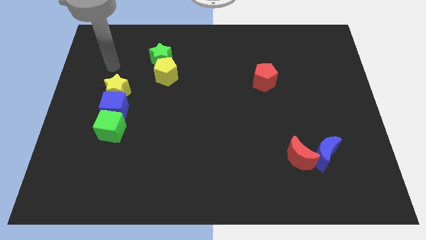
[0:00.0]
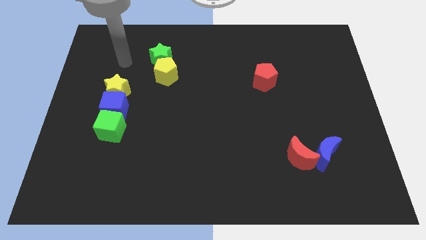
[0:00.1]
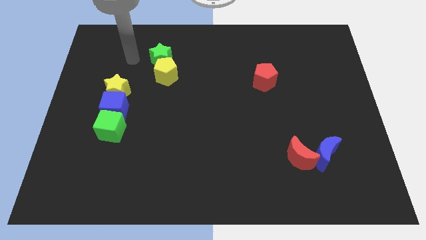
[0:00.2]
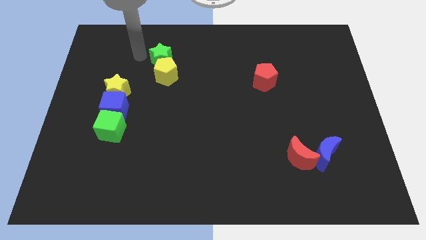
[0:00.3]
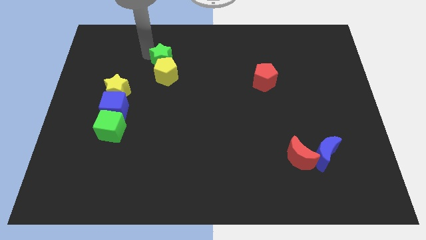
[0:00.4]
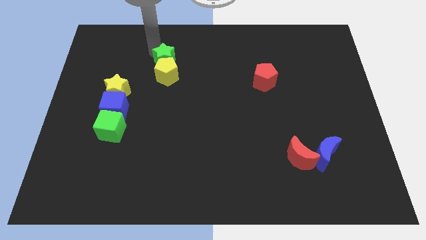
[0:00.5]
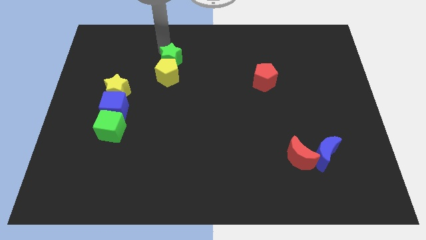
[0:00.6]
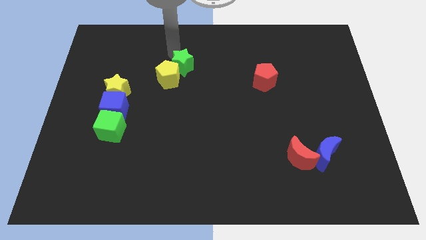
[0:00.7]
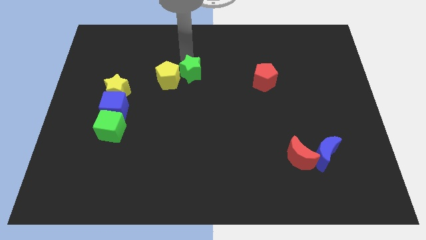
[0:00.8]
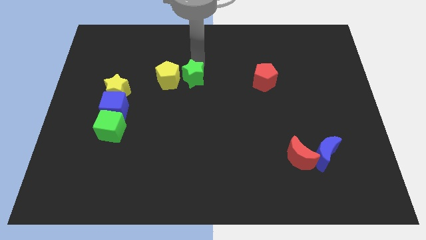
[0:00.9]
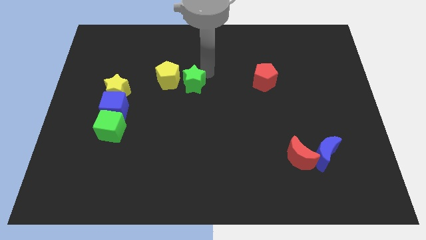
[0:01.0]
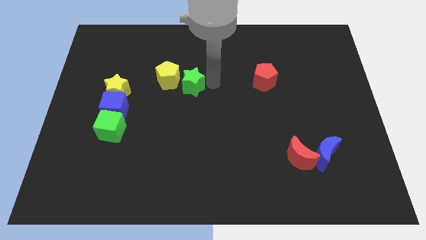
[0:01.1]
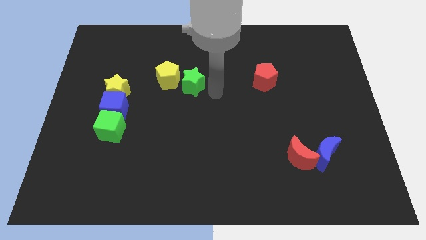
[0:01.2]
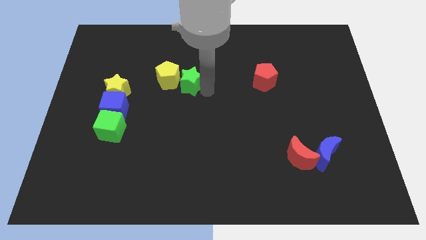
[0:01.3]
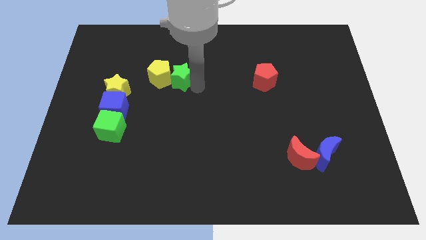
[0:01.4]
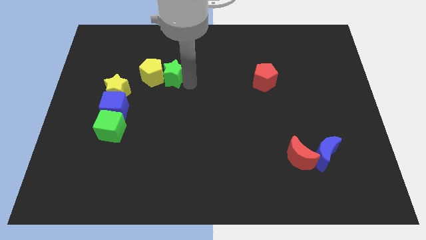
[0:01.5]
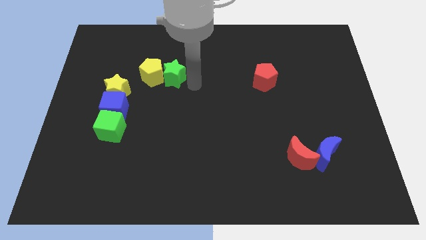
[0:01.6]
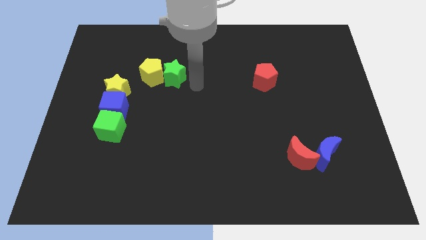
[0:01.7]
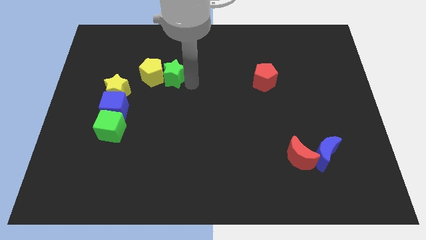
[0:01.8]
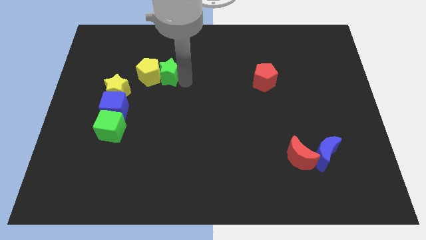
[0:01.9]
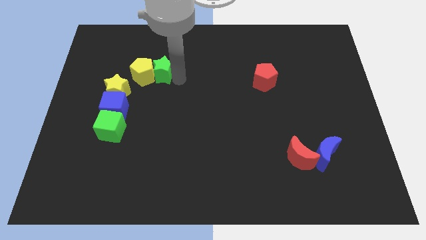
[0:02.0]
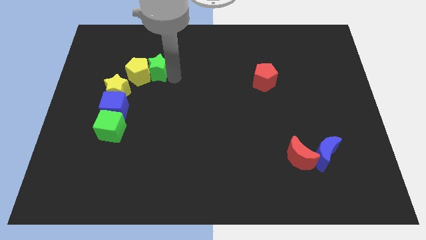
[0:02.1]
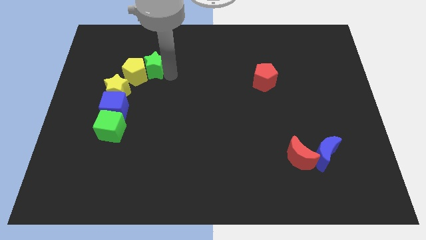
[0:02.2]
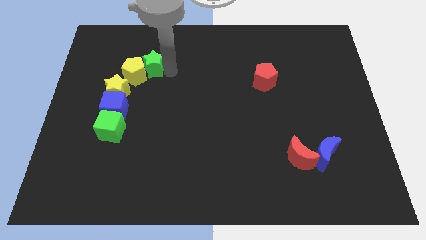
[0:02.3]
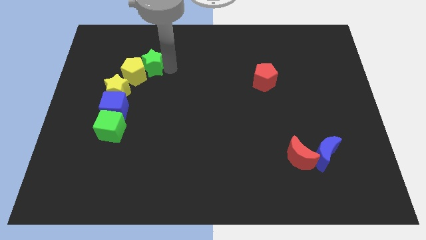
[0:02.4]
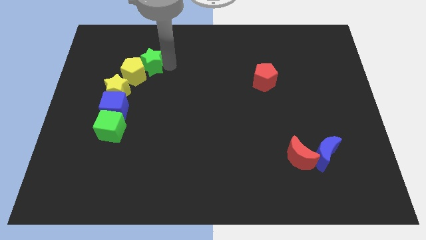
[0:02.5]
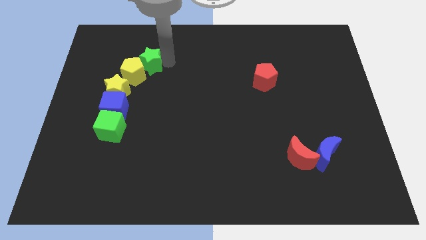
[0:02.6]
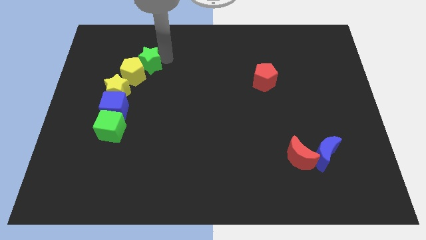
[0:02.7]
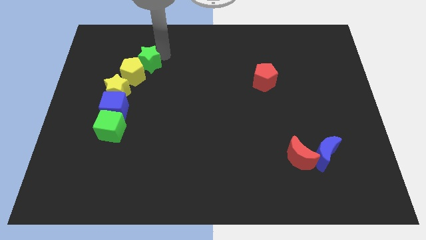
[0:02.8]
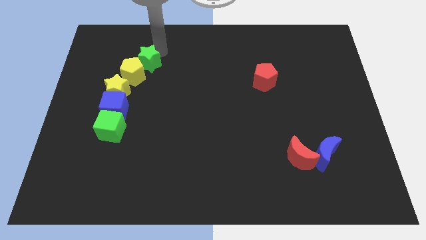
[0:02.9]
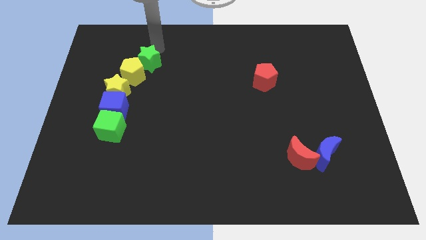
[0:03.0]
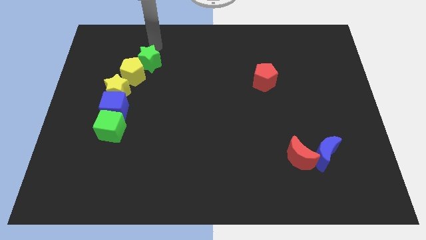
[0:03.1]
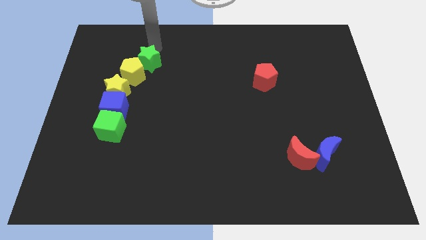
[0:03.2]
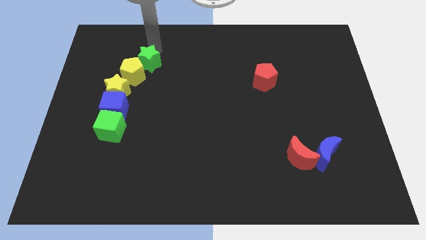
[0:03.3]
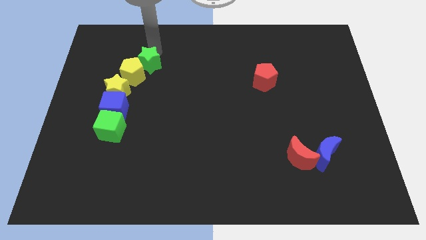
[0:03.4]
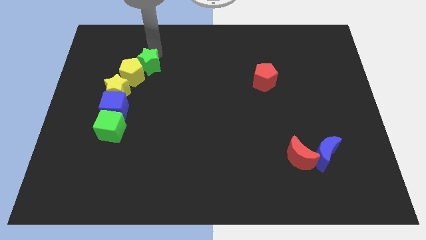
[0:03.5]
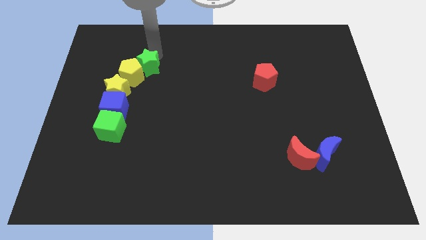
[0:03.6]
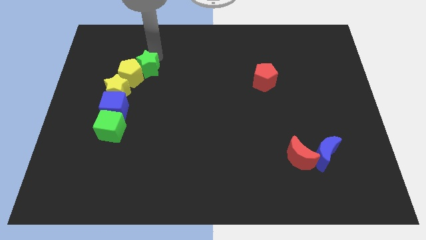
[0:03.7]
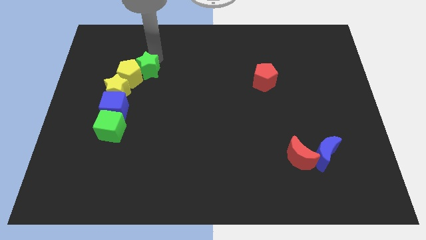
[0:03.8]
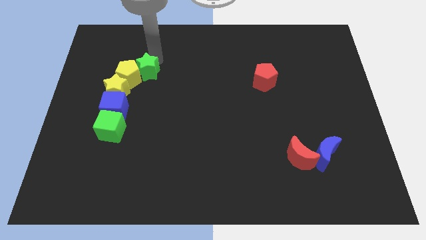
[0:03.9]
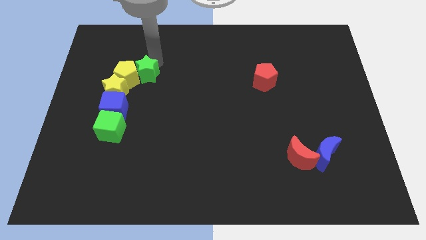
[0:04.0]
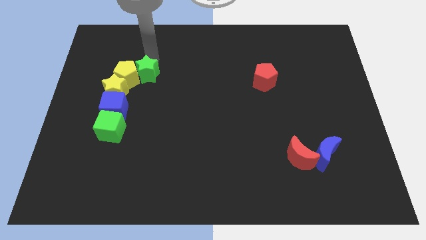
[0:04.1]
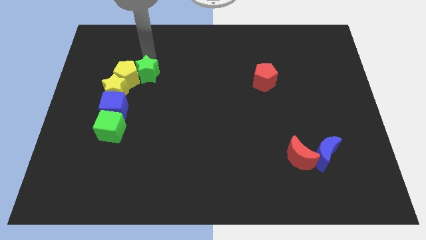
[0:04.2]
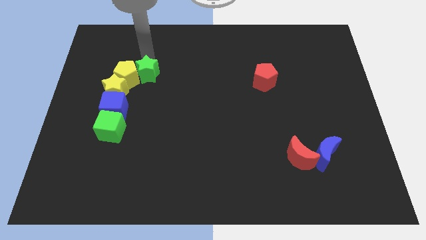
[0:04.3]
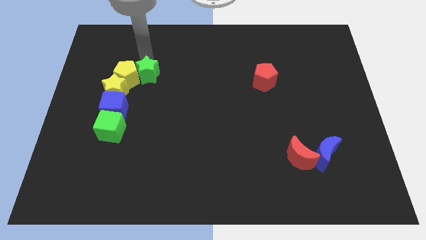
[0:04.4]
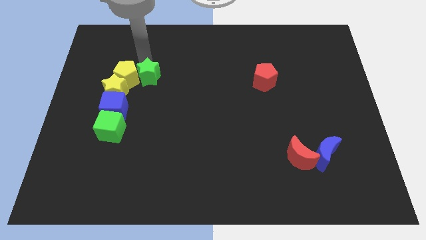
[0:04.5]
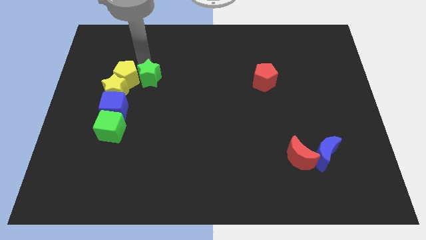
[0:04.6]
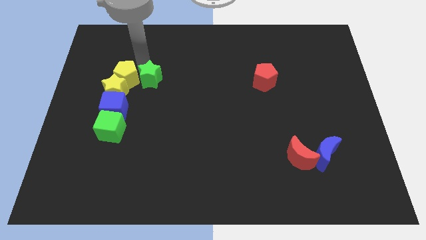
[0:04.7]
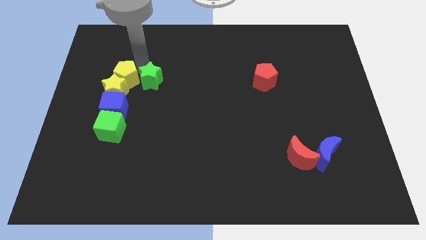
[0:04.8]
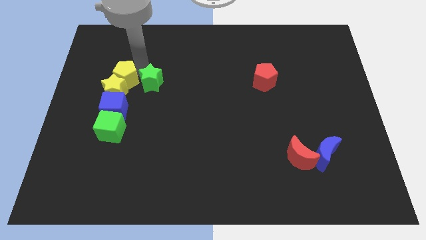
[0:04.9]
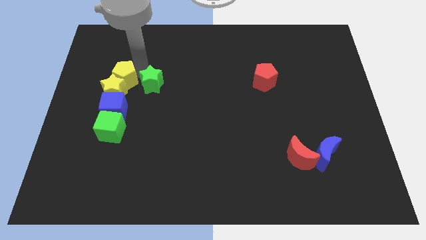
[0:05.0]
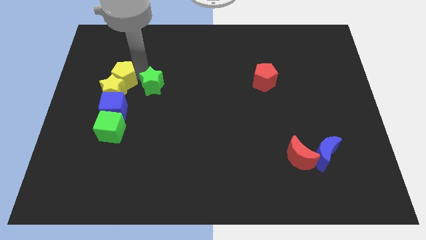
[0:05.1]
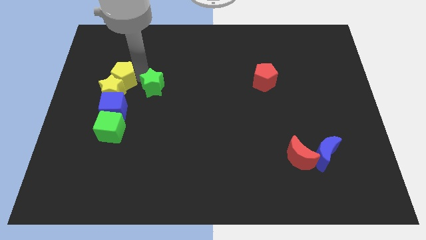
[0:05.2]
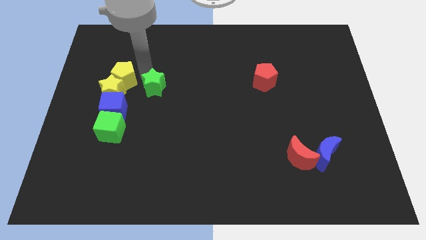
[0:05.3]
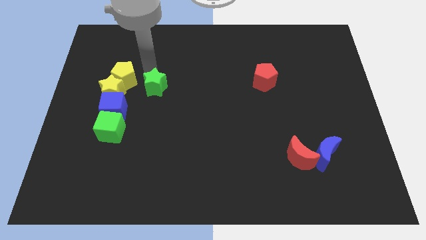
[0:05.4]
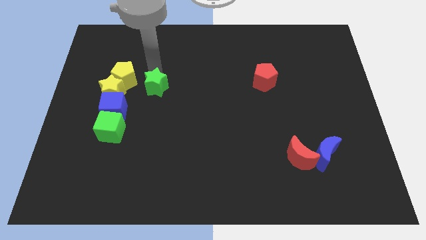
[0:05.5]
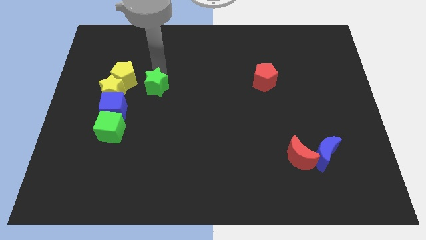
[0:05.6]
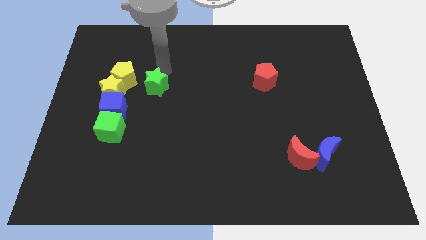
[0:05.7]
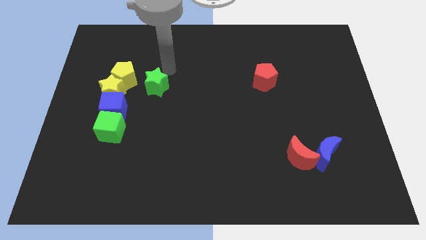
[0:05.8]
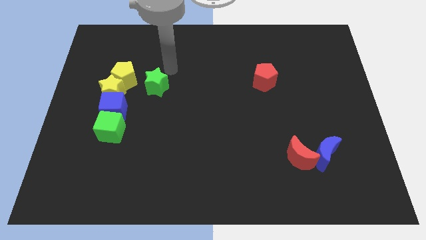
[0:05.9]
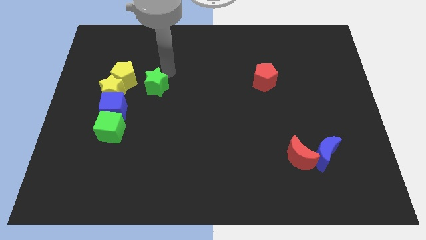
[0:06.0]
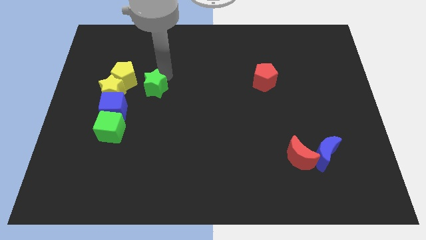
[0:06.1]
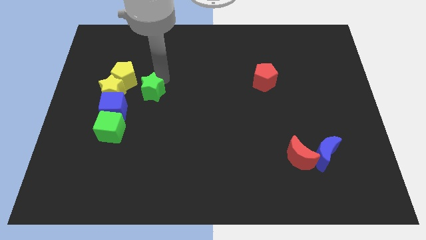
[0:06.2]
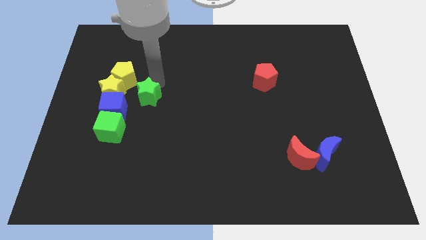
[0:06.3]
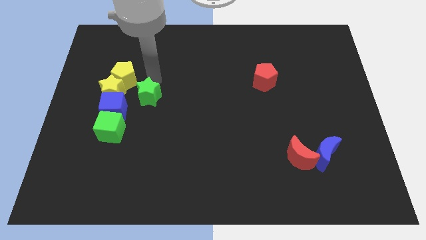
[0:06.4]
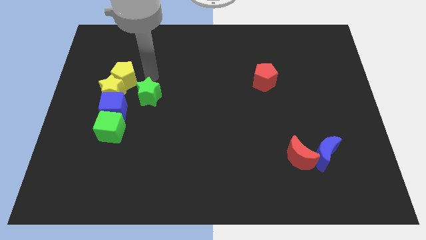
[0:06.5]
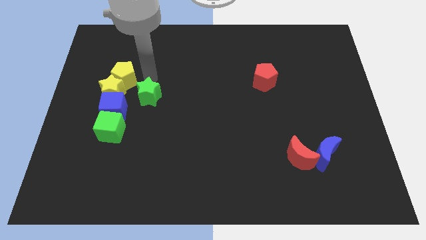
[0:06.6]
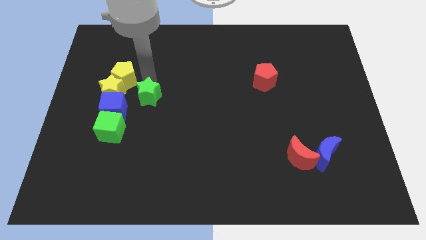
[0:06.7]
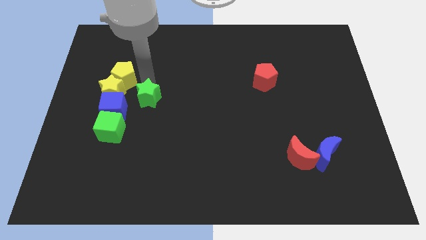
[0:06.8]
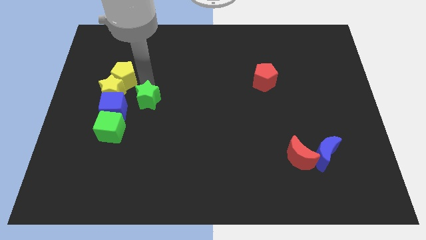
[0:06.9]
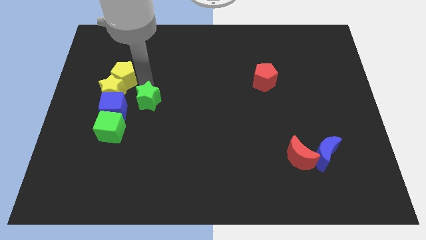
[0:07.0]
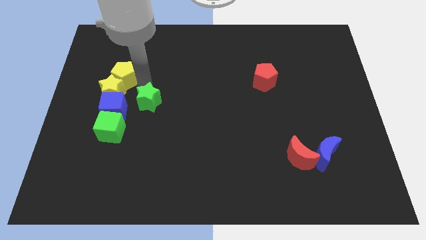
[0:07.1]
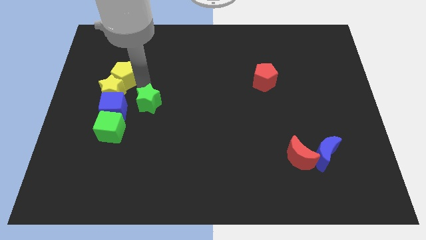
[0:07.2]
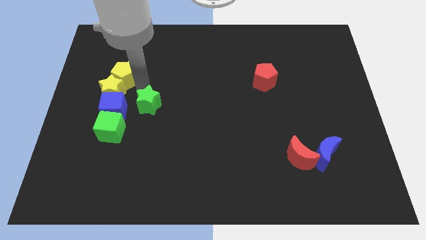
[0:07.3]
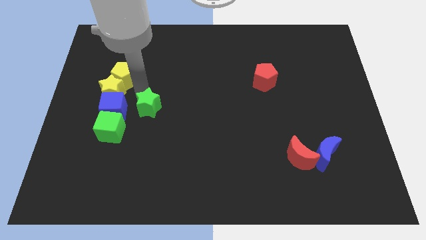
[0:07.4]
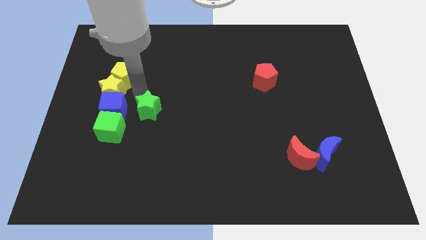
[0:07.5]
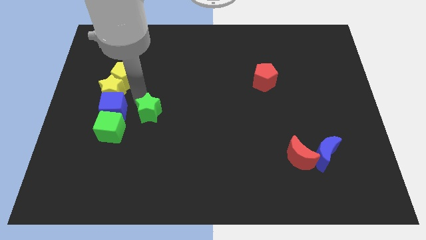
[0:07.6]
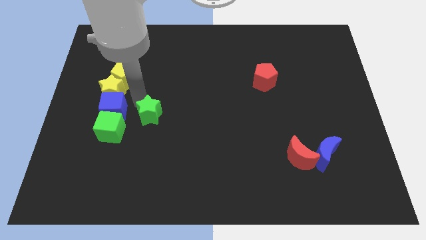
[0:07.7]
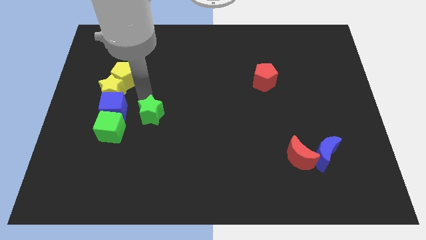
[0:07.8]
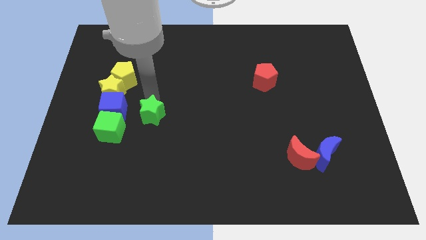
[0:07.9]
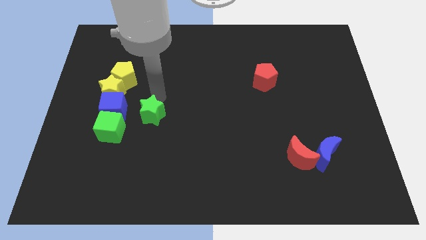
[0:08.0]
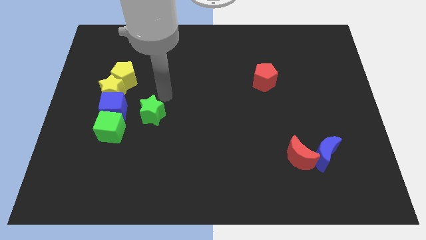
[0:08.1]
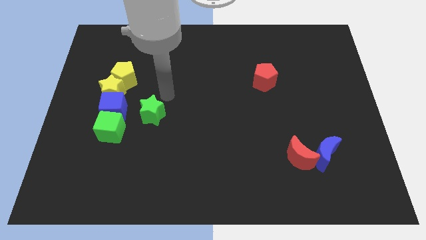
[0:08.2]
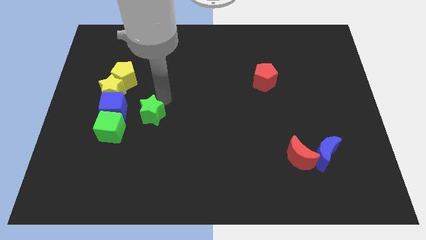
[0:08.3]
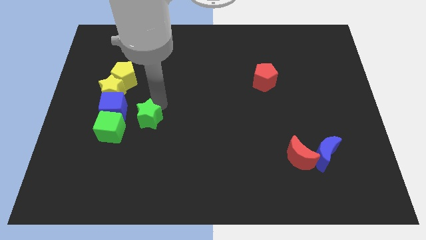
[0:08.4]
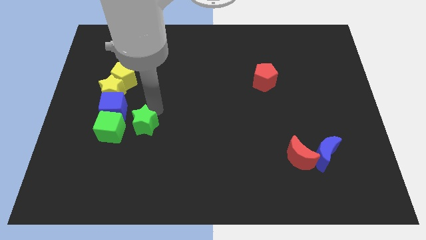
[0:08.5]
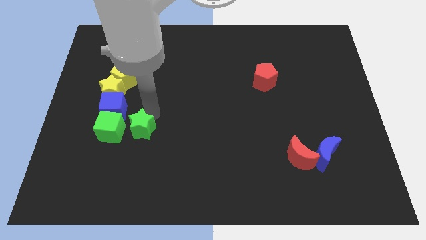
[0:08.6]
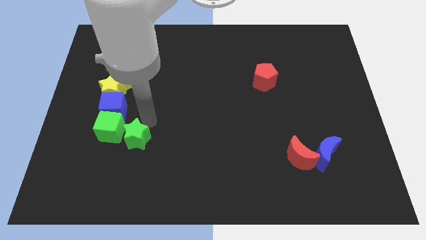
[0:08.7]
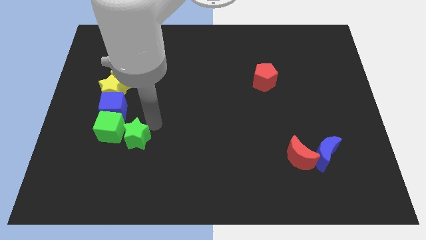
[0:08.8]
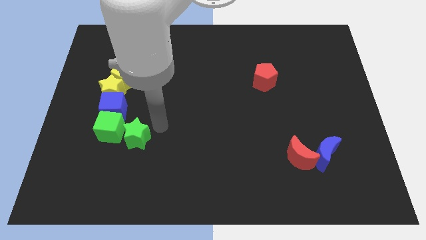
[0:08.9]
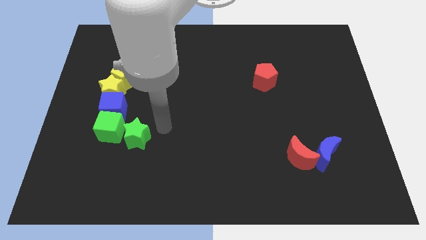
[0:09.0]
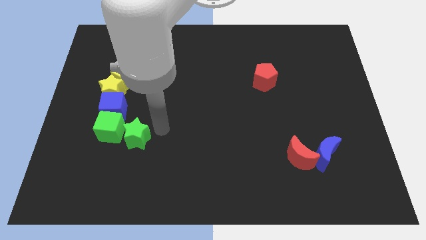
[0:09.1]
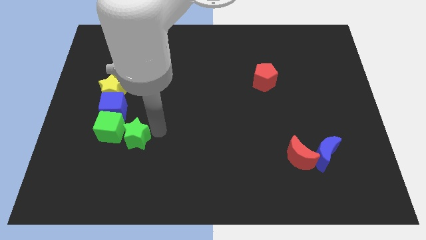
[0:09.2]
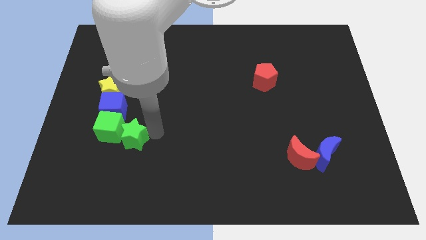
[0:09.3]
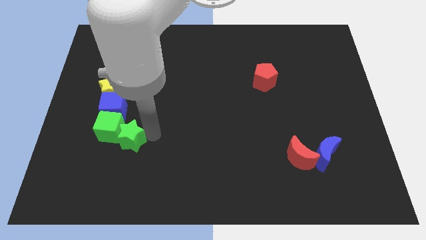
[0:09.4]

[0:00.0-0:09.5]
slide the green star to the bottom of the blue cube
